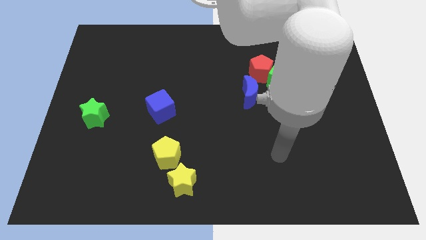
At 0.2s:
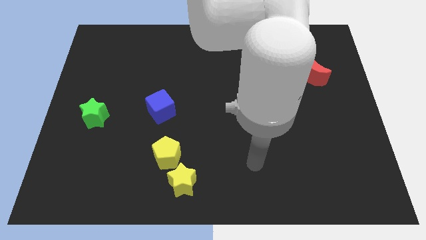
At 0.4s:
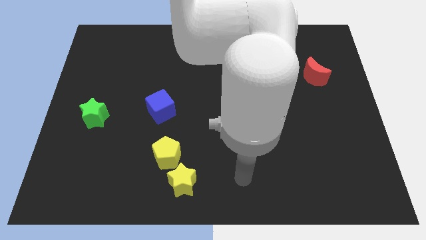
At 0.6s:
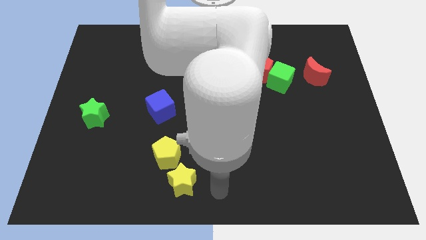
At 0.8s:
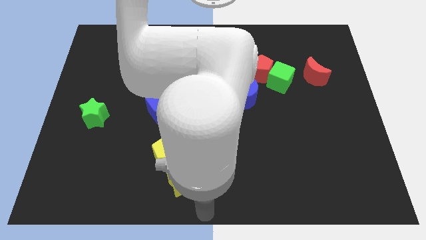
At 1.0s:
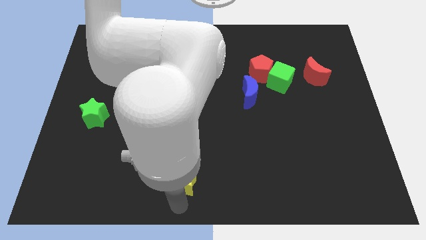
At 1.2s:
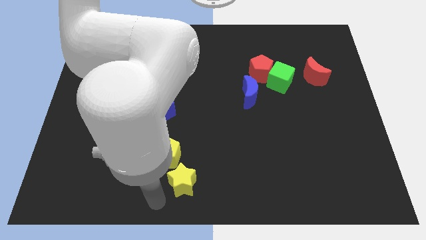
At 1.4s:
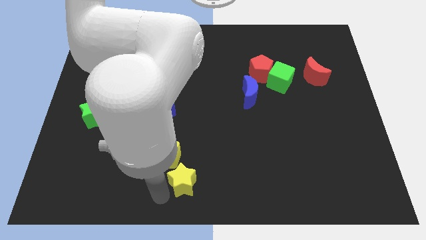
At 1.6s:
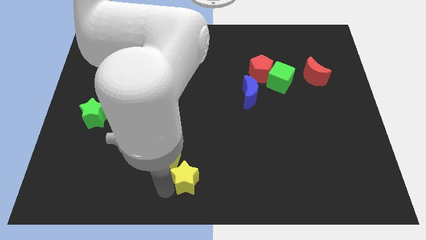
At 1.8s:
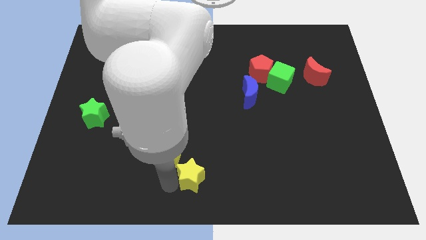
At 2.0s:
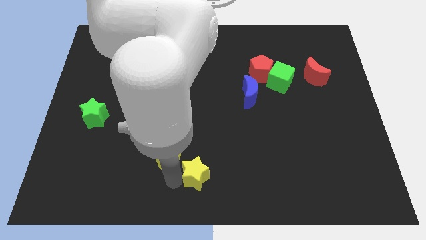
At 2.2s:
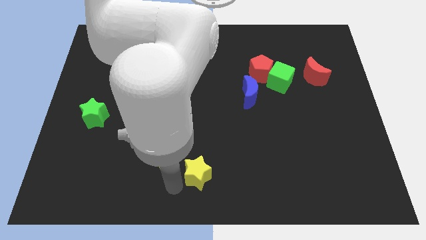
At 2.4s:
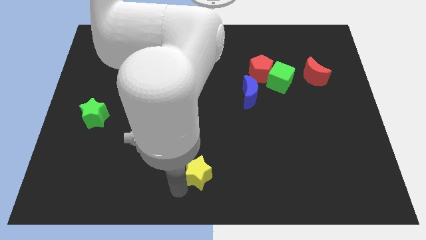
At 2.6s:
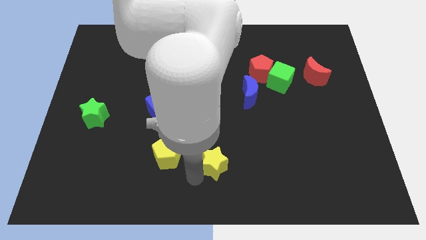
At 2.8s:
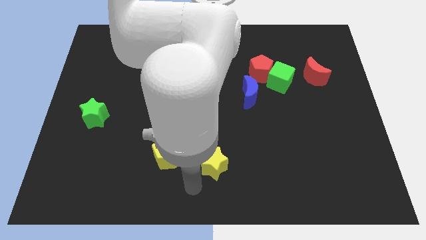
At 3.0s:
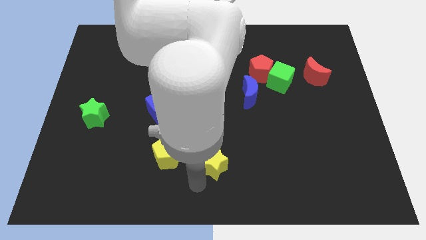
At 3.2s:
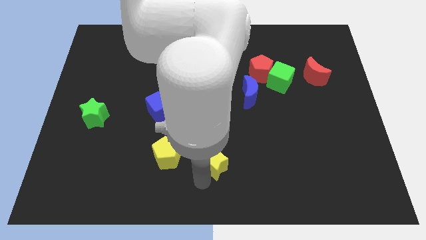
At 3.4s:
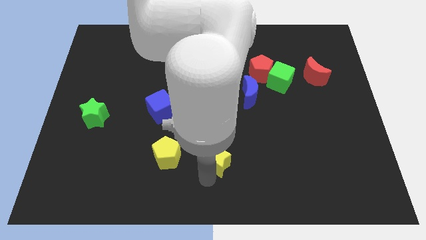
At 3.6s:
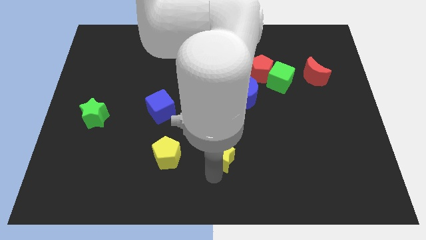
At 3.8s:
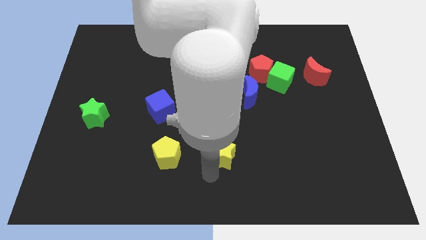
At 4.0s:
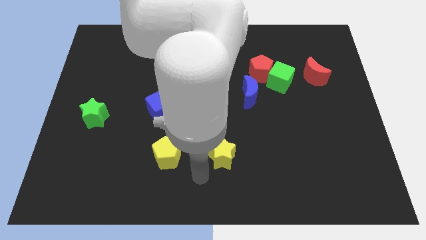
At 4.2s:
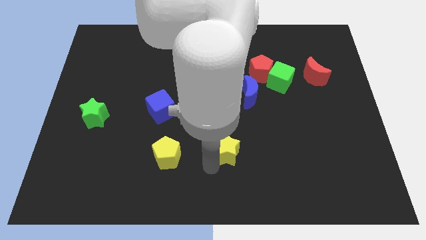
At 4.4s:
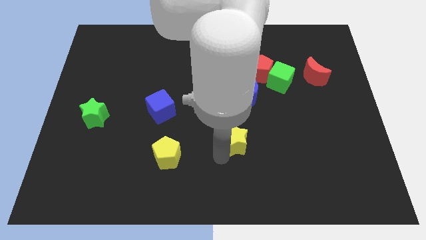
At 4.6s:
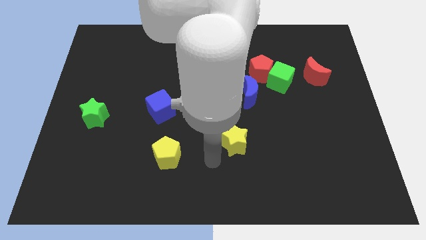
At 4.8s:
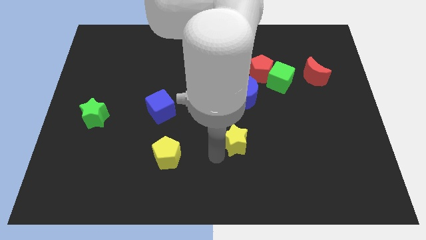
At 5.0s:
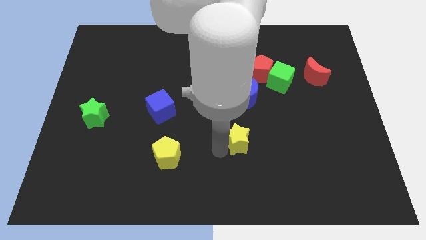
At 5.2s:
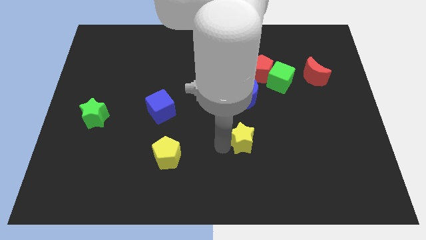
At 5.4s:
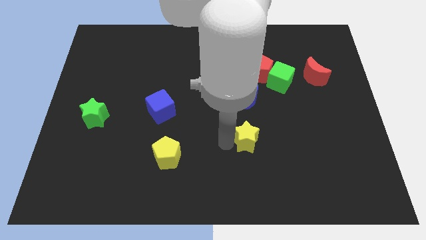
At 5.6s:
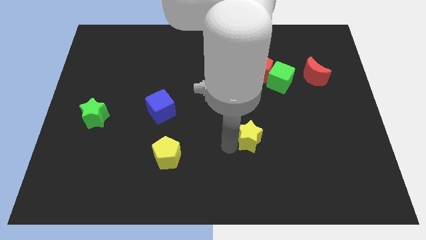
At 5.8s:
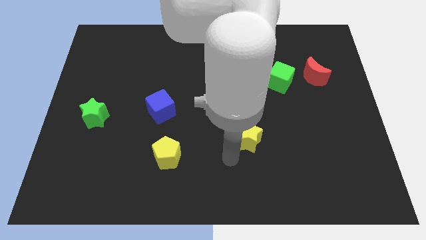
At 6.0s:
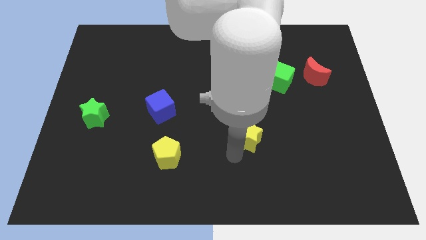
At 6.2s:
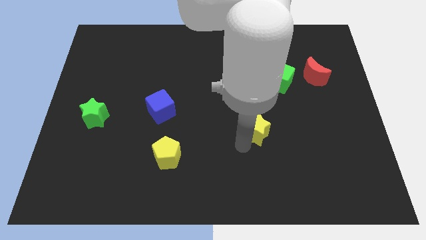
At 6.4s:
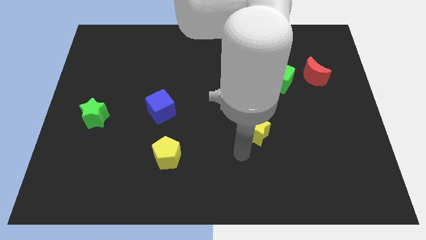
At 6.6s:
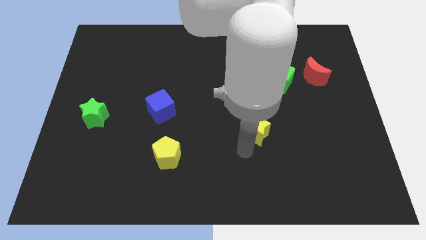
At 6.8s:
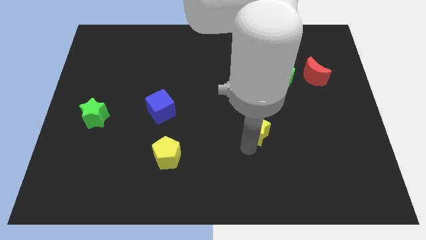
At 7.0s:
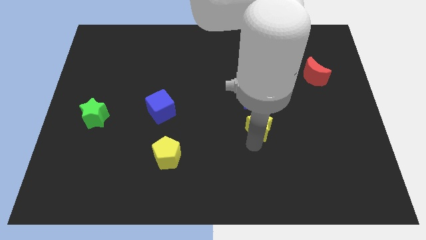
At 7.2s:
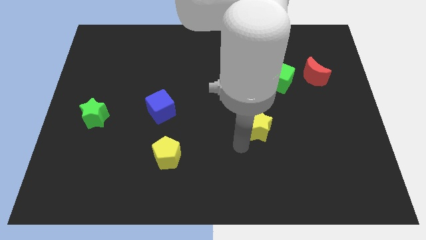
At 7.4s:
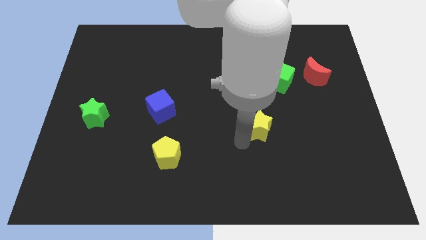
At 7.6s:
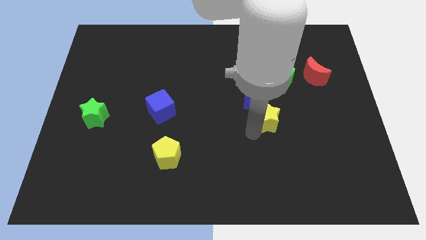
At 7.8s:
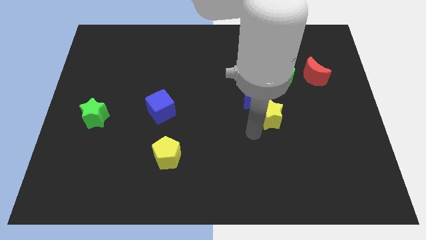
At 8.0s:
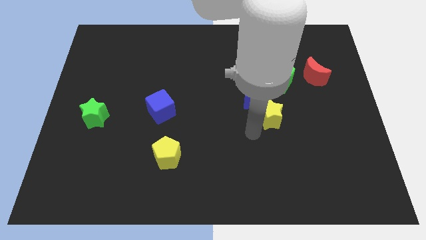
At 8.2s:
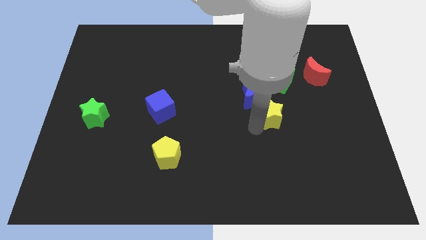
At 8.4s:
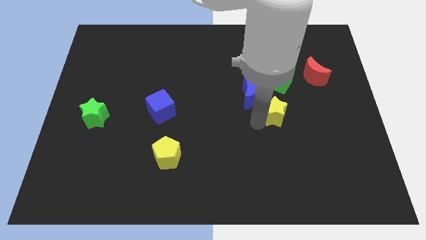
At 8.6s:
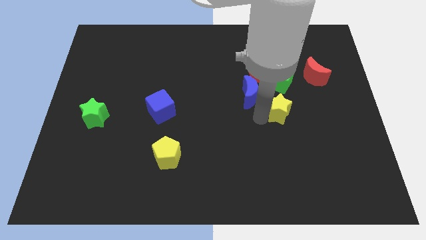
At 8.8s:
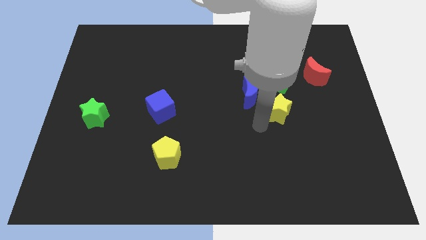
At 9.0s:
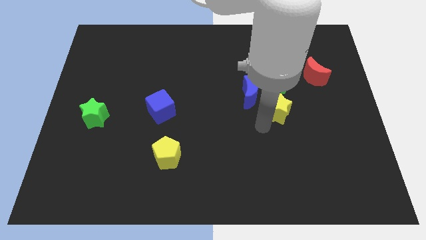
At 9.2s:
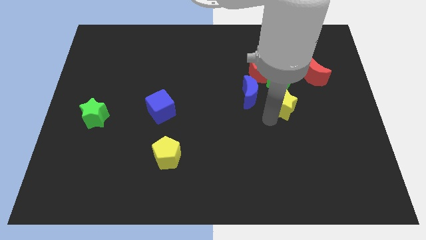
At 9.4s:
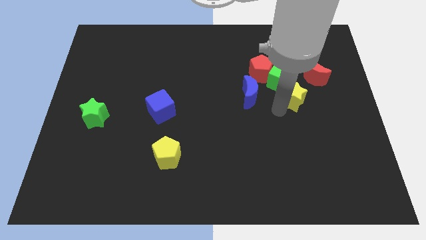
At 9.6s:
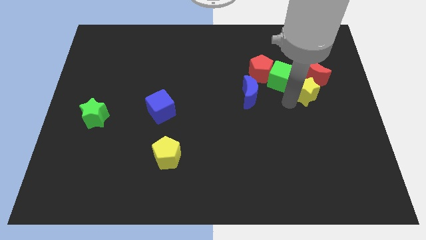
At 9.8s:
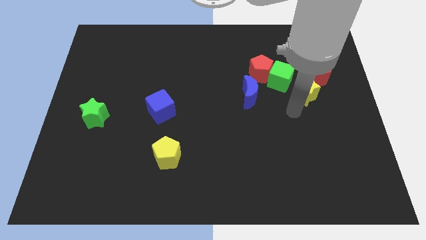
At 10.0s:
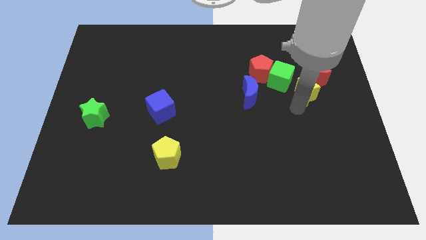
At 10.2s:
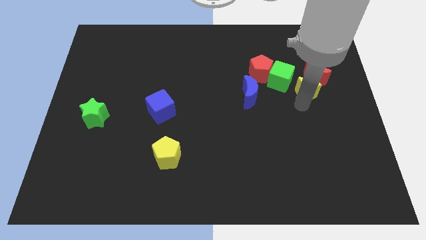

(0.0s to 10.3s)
put the yellow star close to the red moon

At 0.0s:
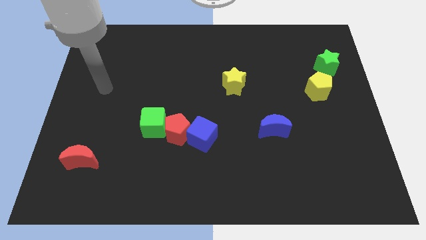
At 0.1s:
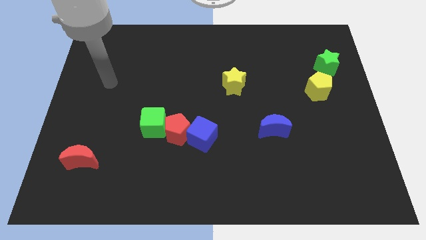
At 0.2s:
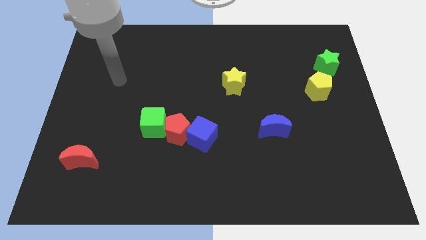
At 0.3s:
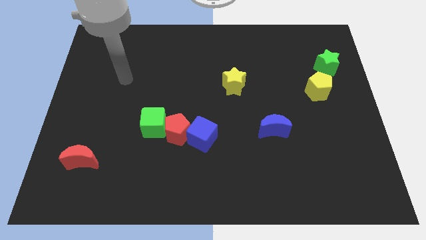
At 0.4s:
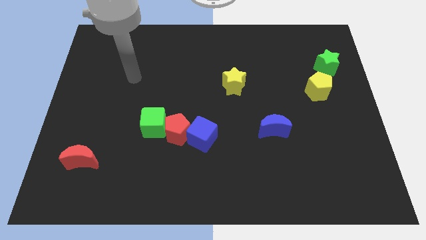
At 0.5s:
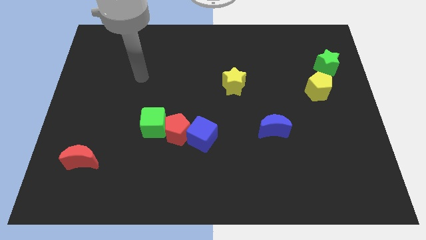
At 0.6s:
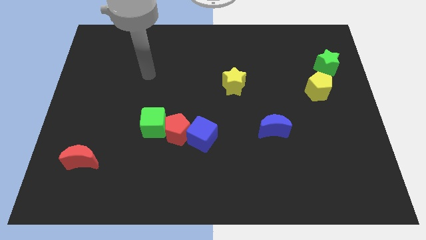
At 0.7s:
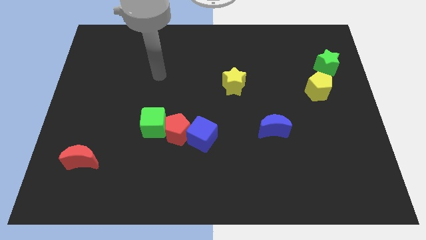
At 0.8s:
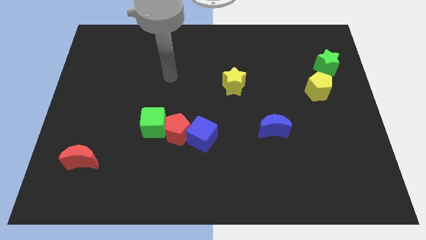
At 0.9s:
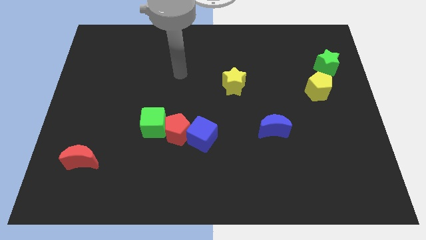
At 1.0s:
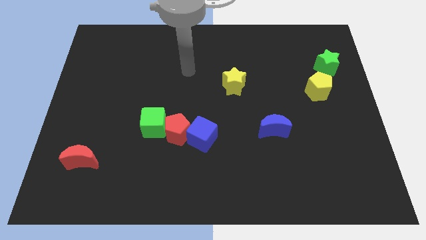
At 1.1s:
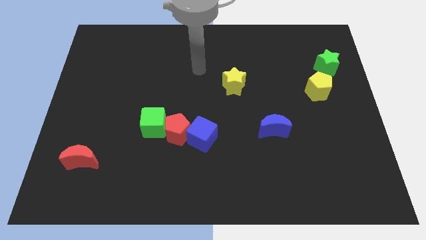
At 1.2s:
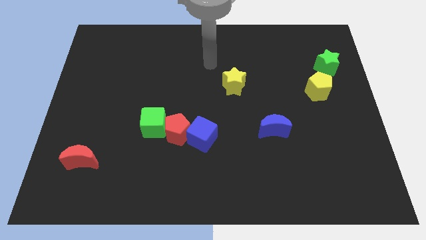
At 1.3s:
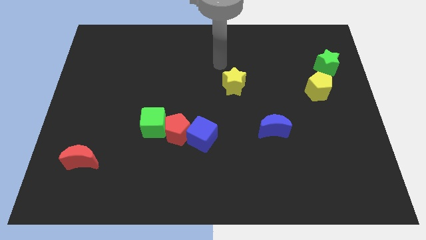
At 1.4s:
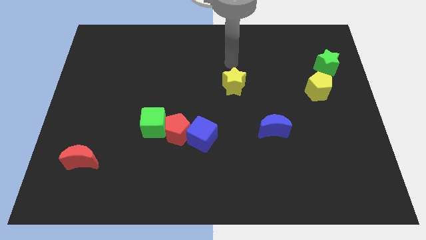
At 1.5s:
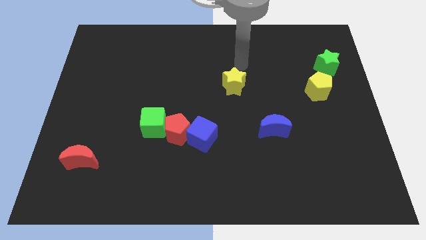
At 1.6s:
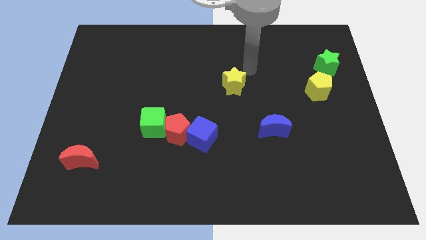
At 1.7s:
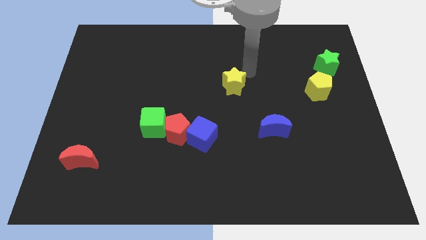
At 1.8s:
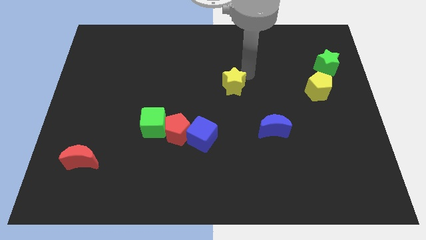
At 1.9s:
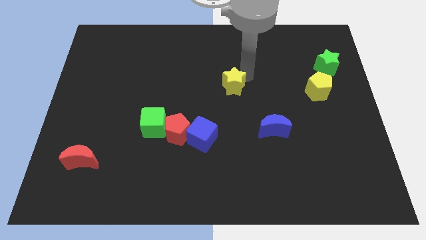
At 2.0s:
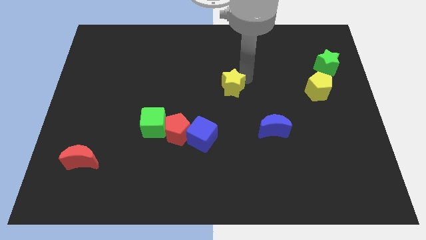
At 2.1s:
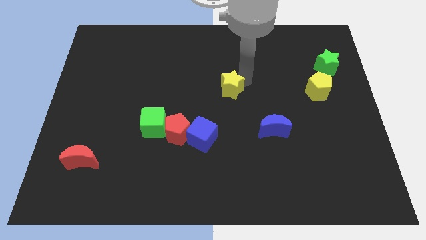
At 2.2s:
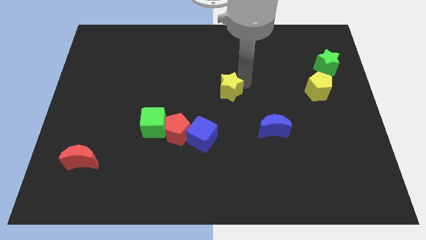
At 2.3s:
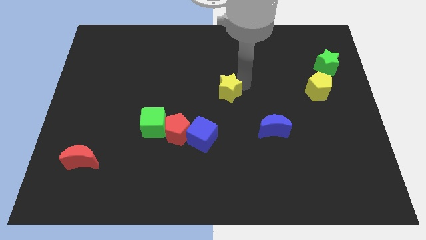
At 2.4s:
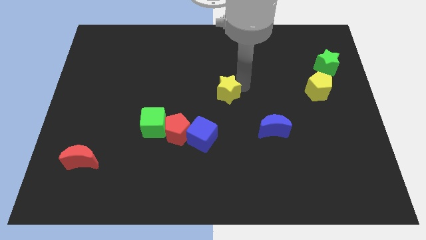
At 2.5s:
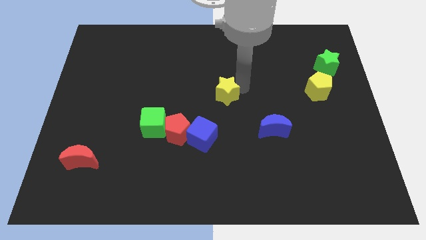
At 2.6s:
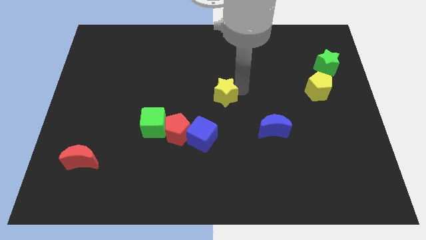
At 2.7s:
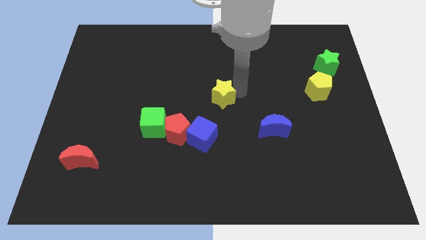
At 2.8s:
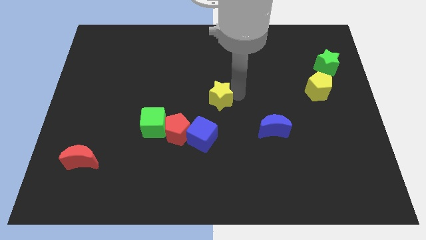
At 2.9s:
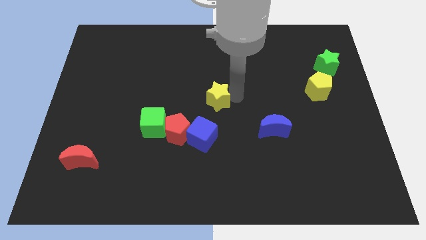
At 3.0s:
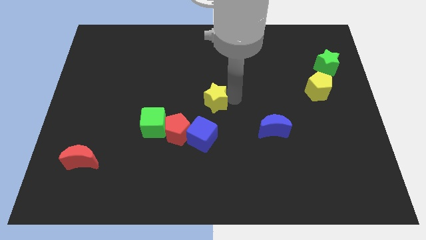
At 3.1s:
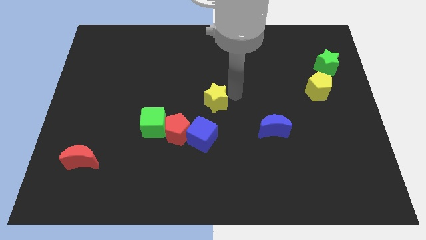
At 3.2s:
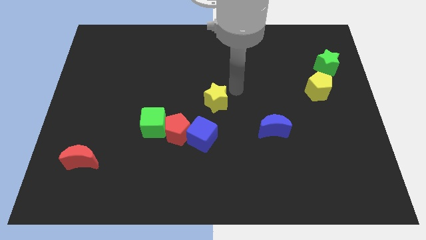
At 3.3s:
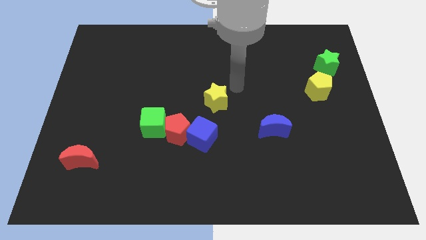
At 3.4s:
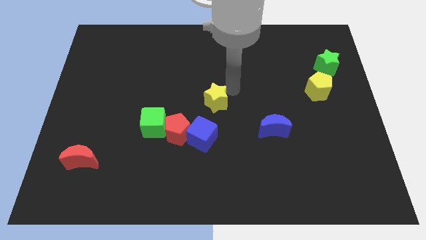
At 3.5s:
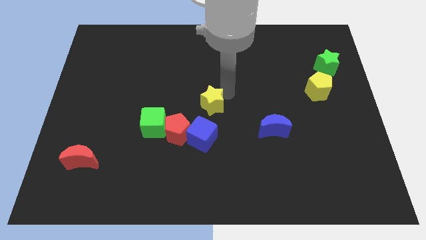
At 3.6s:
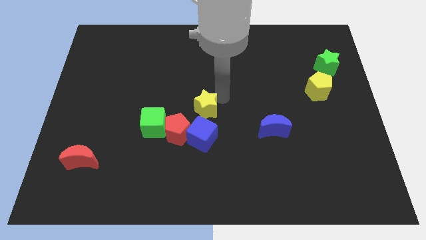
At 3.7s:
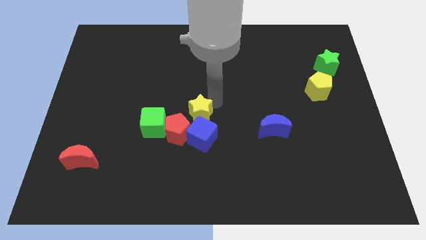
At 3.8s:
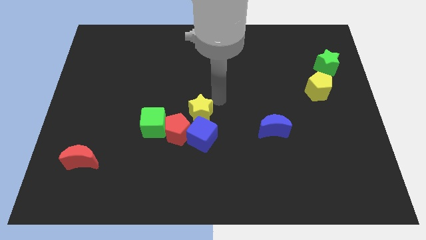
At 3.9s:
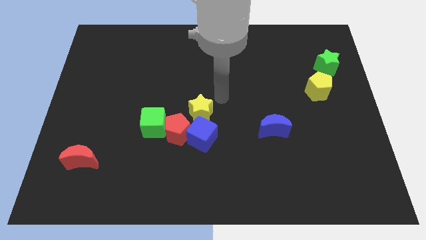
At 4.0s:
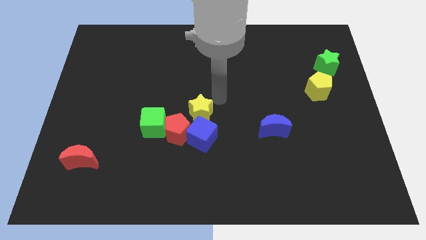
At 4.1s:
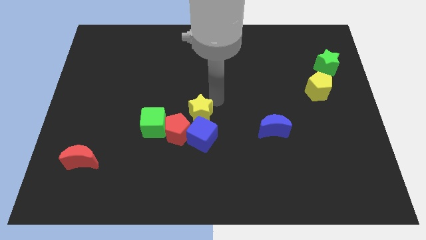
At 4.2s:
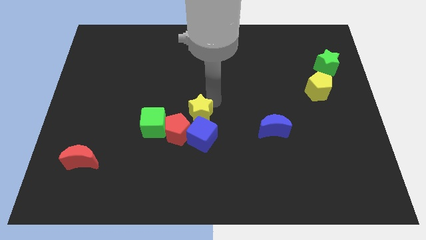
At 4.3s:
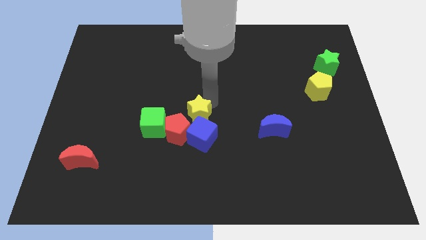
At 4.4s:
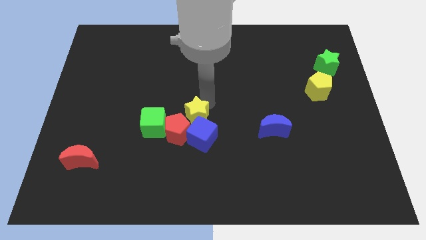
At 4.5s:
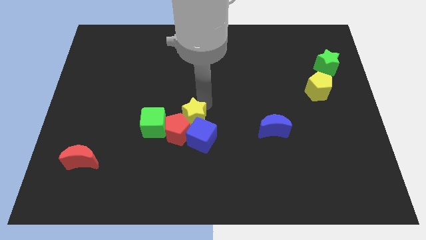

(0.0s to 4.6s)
push the yellow star towards the red pentagon
